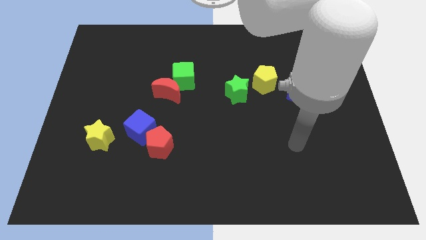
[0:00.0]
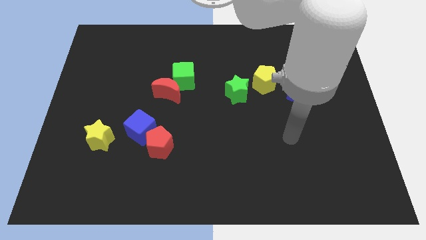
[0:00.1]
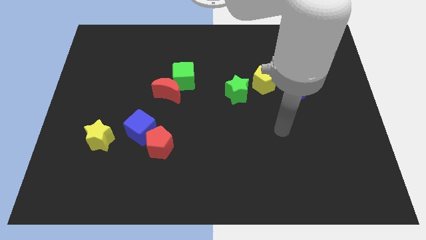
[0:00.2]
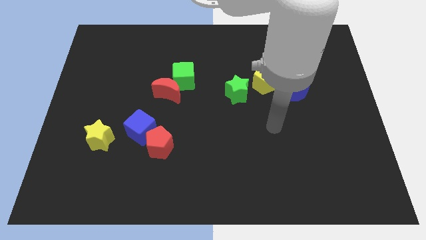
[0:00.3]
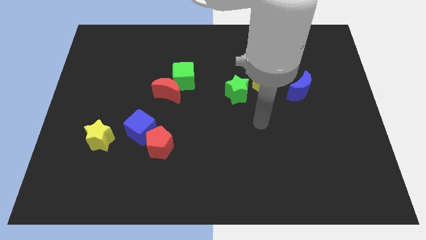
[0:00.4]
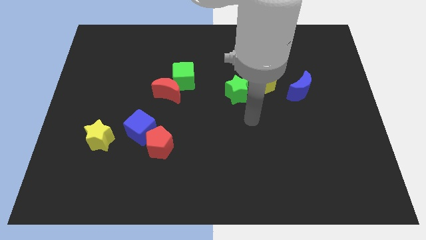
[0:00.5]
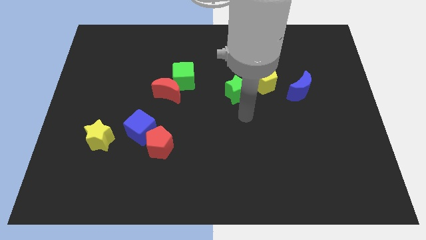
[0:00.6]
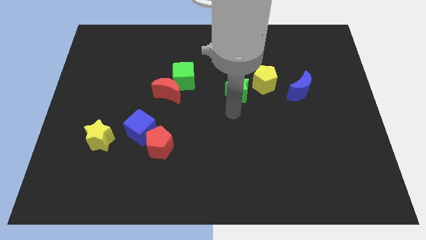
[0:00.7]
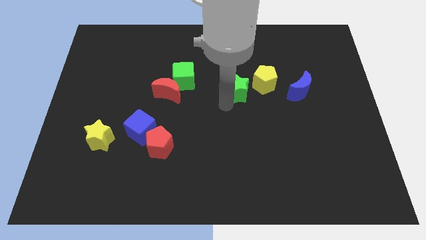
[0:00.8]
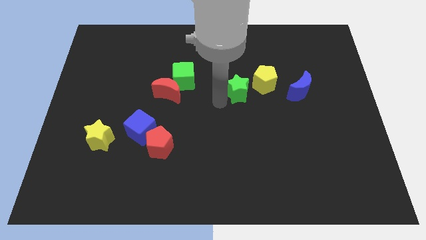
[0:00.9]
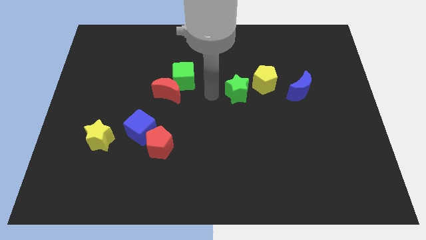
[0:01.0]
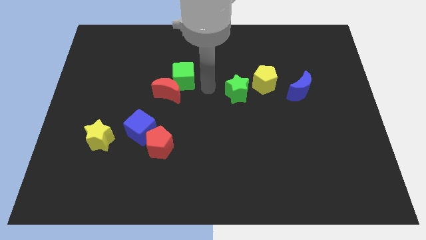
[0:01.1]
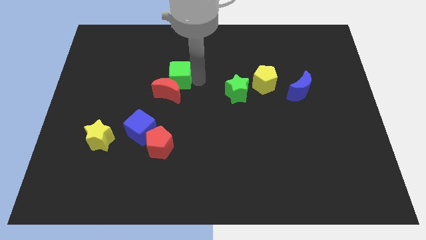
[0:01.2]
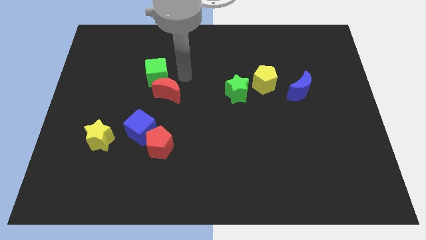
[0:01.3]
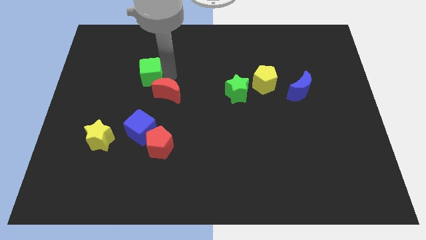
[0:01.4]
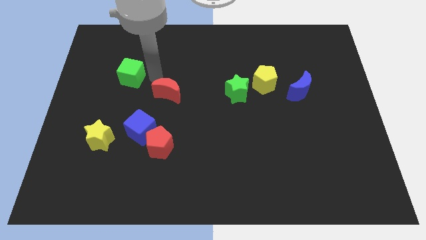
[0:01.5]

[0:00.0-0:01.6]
separate the red moon from the green cube

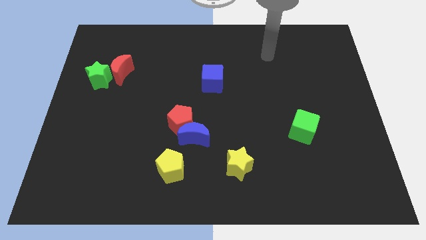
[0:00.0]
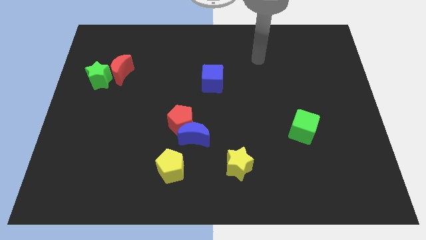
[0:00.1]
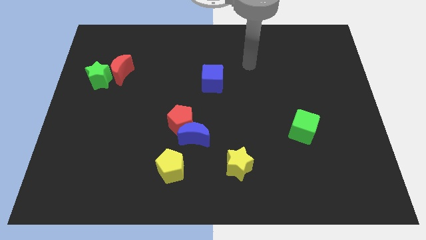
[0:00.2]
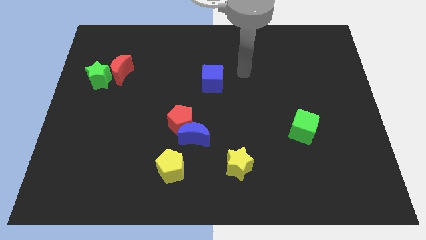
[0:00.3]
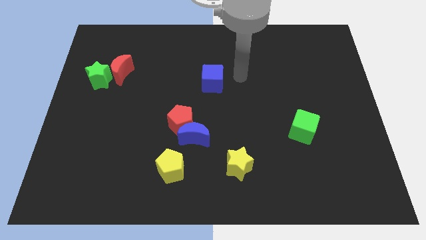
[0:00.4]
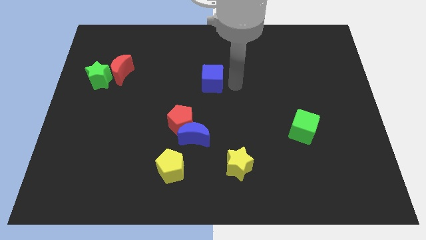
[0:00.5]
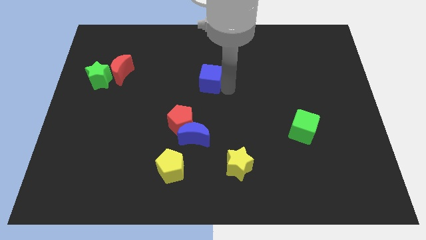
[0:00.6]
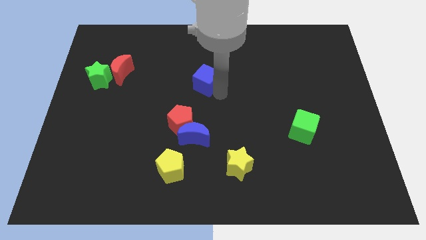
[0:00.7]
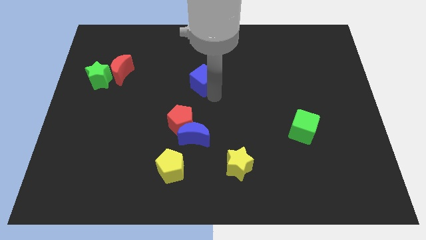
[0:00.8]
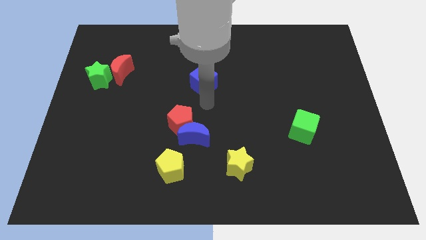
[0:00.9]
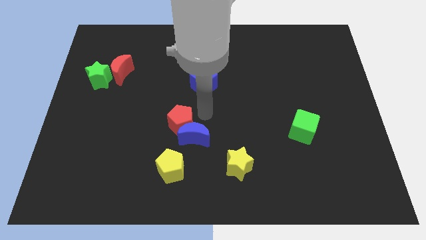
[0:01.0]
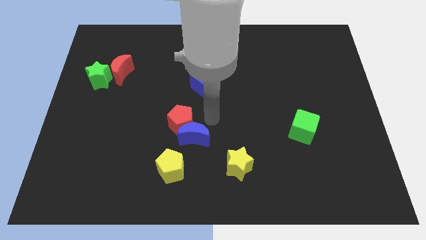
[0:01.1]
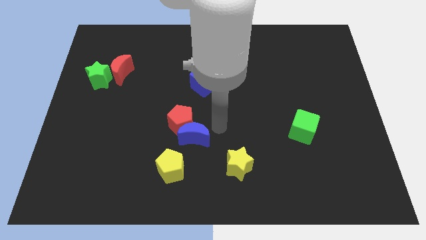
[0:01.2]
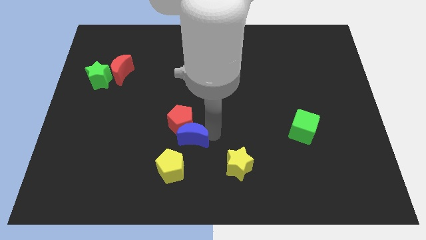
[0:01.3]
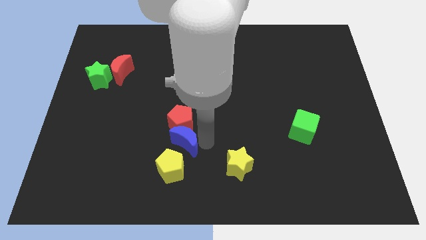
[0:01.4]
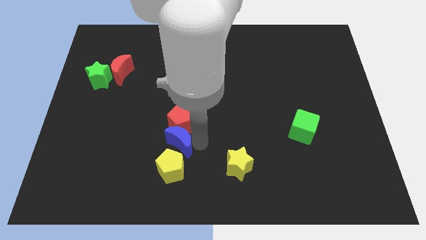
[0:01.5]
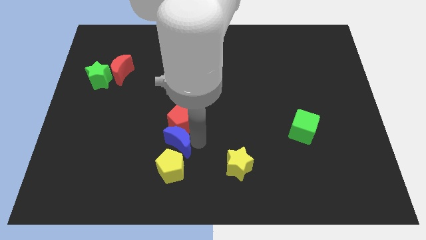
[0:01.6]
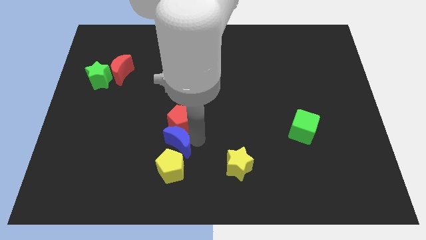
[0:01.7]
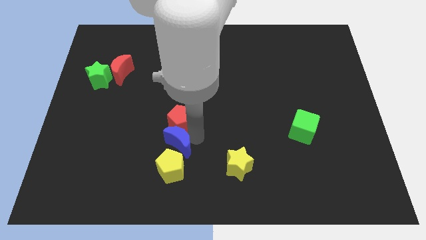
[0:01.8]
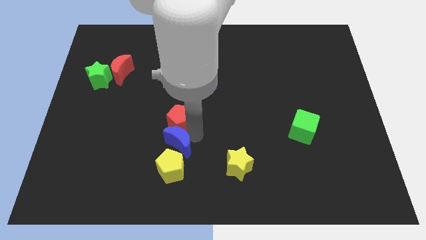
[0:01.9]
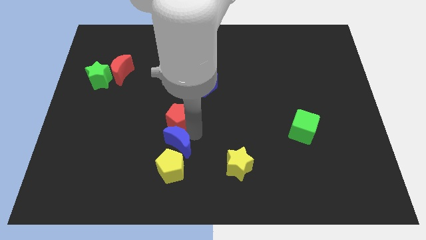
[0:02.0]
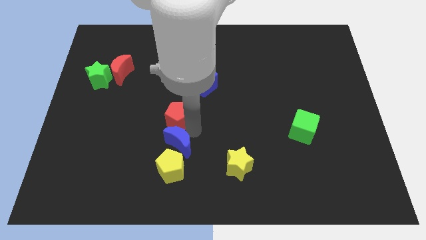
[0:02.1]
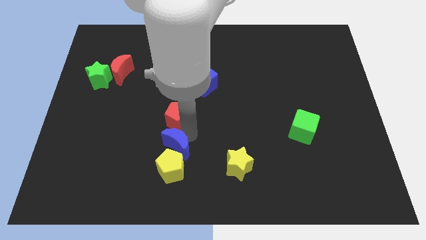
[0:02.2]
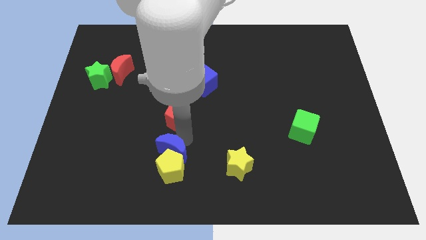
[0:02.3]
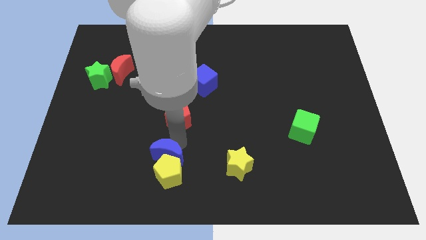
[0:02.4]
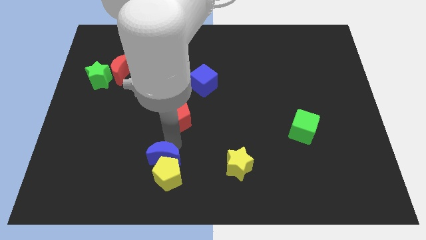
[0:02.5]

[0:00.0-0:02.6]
separate the red pentagon from the blue moon

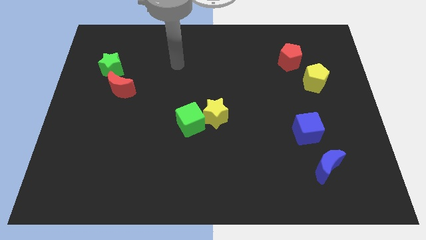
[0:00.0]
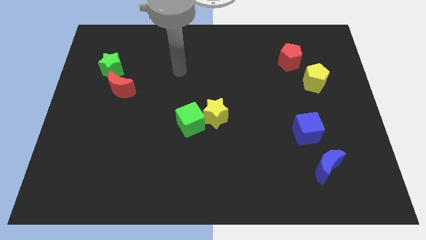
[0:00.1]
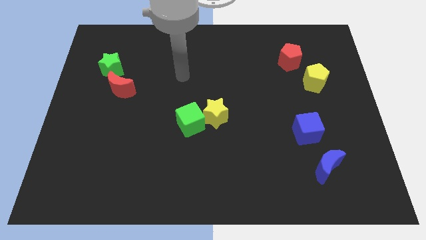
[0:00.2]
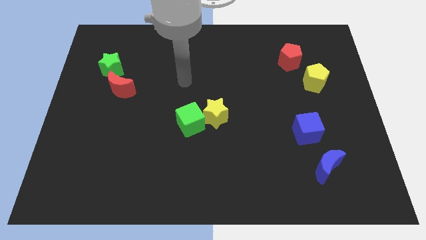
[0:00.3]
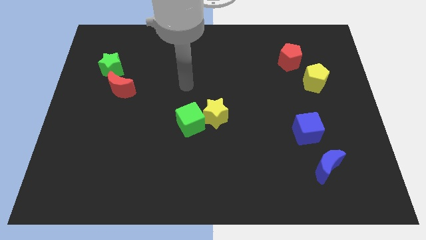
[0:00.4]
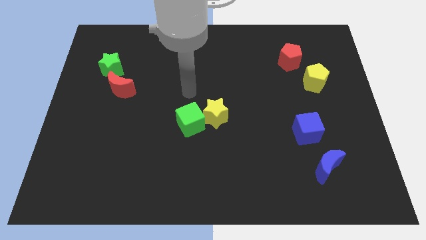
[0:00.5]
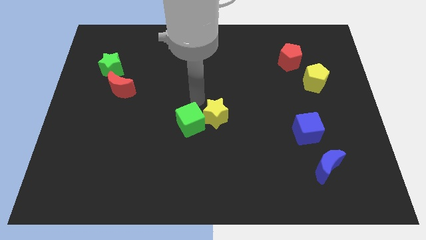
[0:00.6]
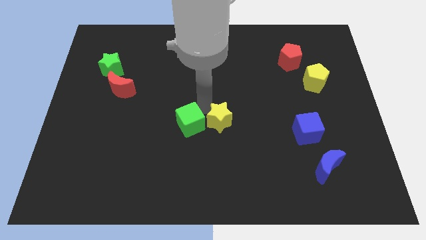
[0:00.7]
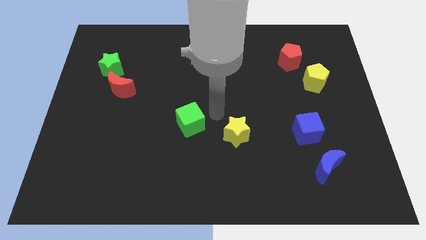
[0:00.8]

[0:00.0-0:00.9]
pull the green cube apart from the yellow star

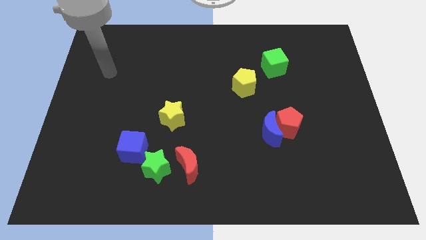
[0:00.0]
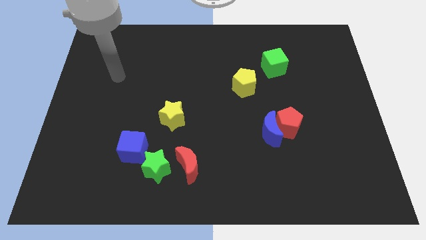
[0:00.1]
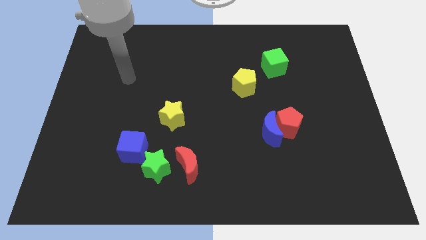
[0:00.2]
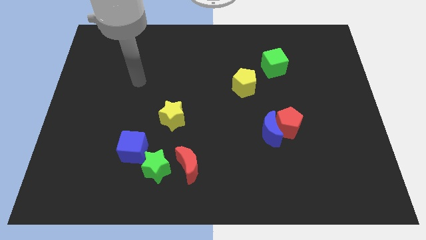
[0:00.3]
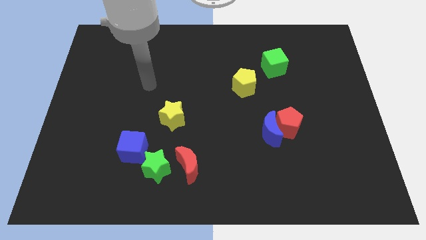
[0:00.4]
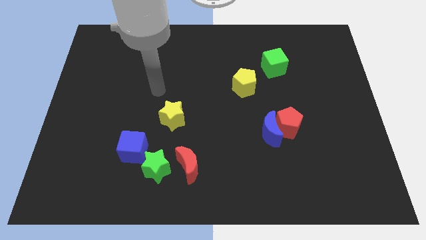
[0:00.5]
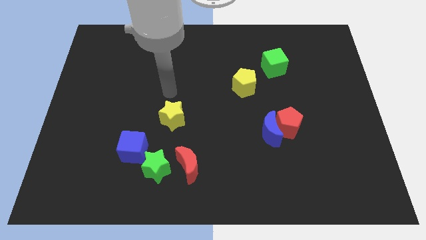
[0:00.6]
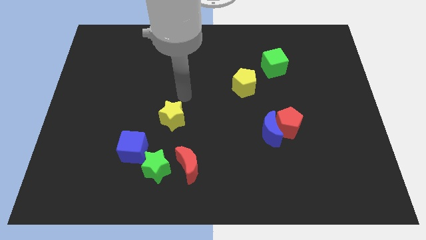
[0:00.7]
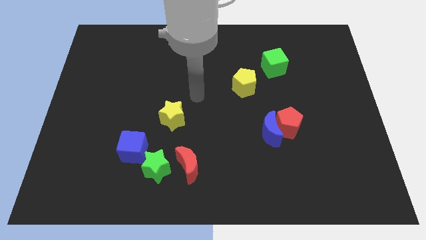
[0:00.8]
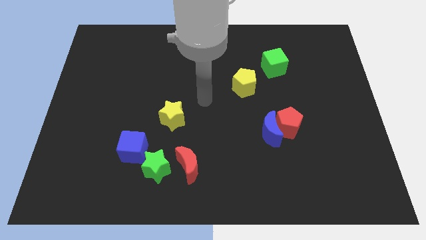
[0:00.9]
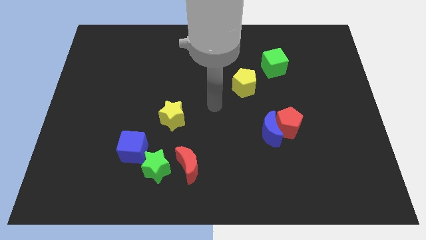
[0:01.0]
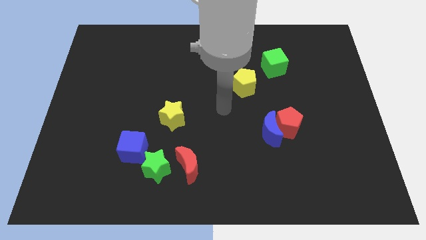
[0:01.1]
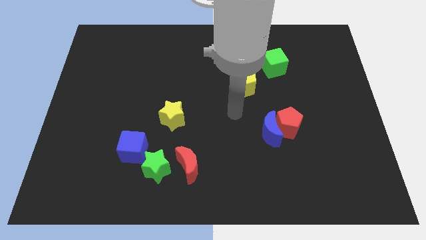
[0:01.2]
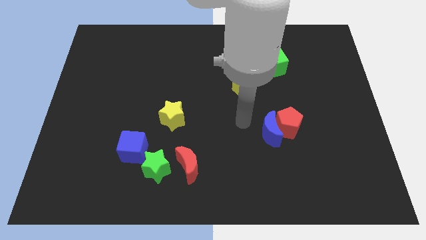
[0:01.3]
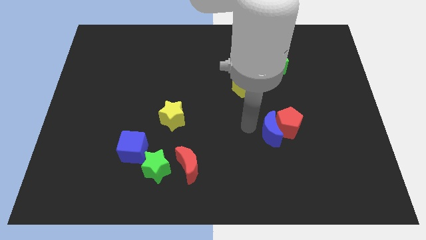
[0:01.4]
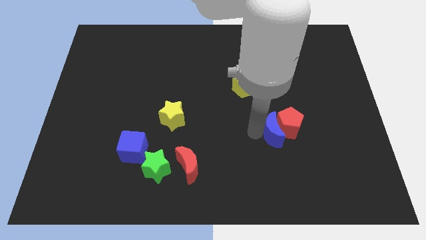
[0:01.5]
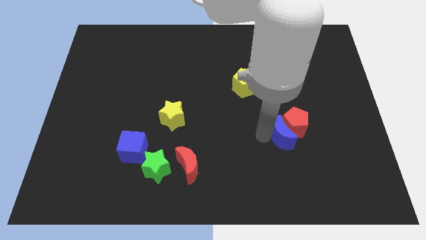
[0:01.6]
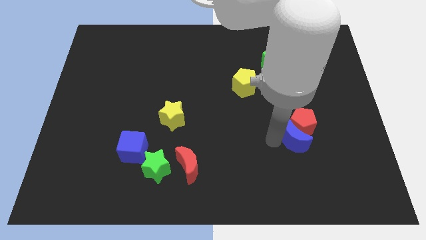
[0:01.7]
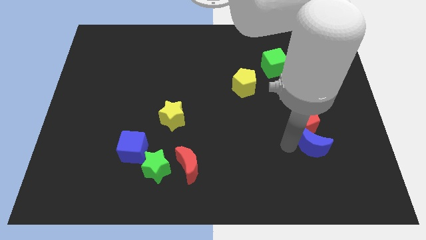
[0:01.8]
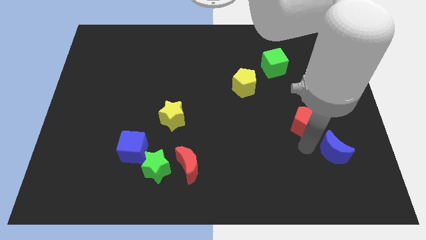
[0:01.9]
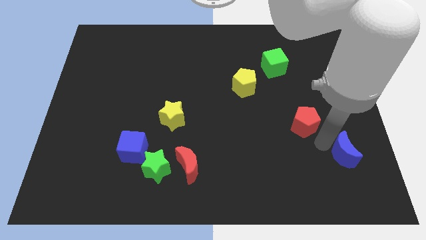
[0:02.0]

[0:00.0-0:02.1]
pull the red pentagon apart from the blue moon

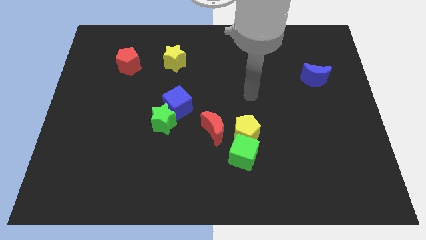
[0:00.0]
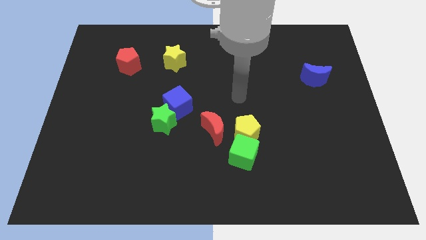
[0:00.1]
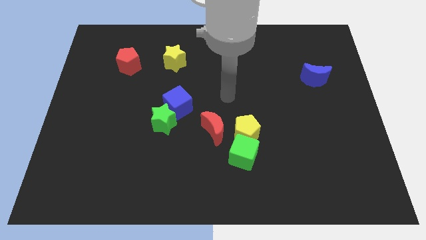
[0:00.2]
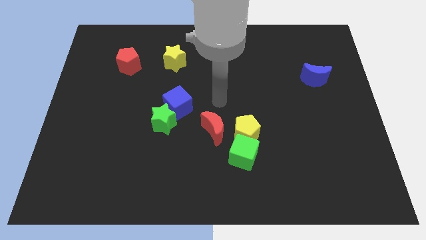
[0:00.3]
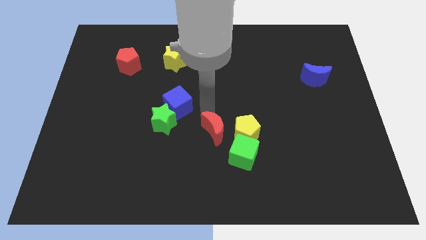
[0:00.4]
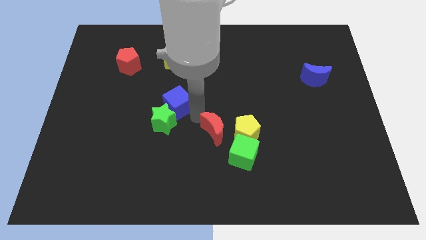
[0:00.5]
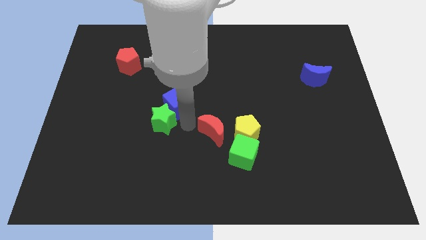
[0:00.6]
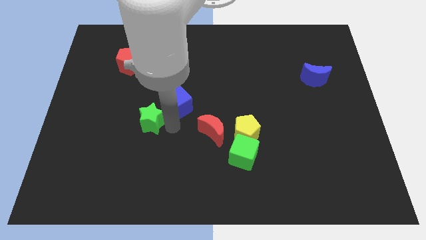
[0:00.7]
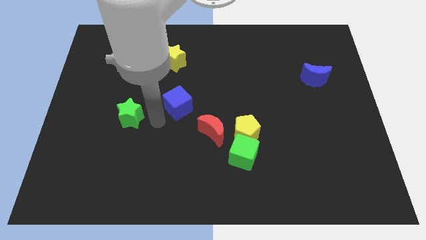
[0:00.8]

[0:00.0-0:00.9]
move the blue cube away from the green star

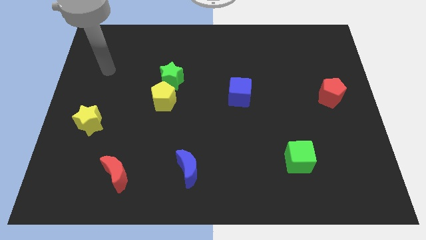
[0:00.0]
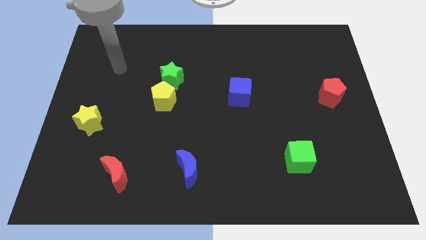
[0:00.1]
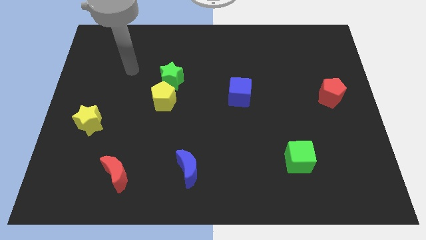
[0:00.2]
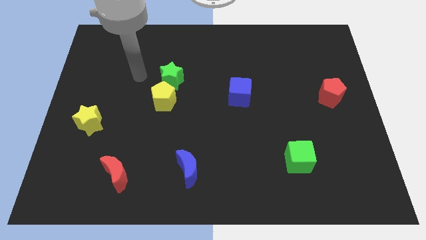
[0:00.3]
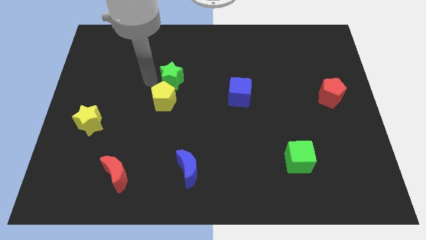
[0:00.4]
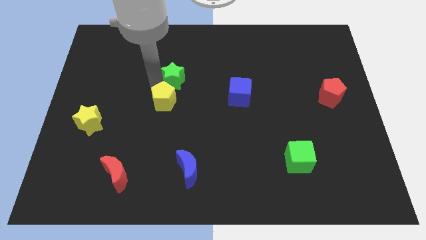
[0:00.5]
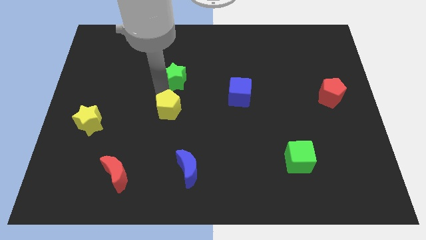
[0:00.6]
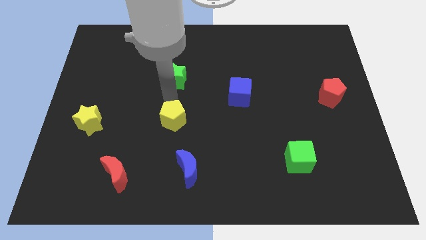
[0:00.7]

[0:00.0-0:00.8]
pull the green star apart from the yellow pentagon

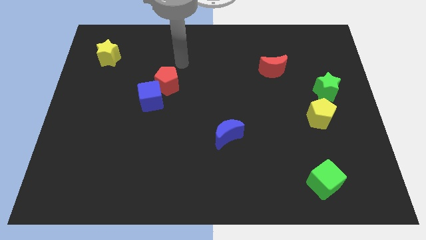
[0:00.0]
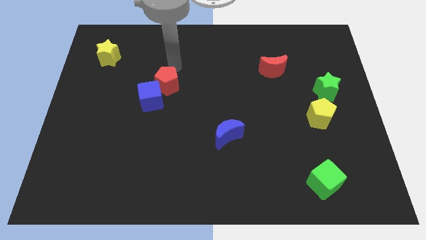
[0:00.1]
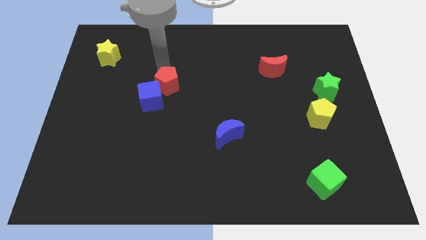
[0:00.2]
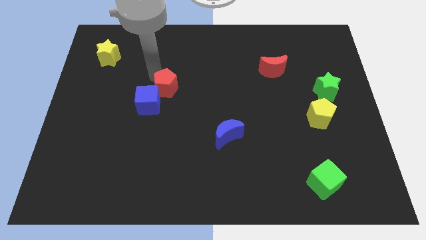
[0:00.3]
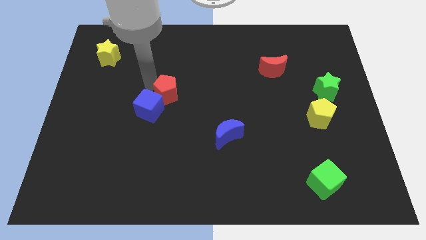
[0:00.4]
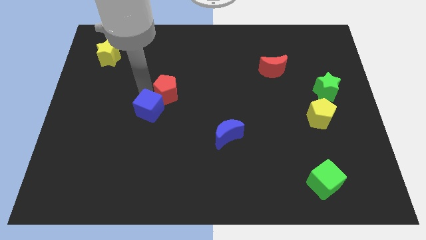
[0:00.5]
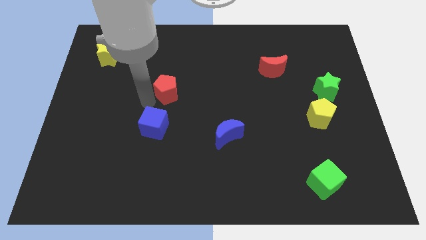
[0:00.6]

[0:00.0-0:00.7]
move the red pentagon away from the blue cube
